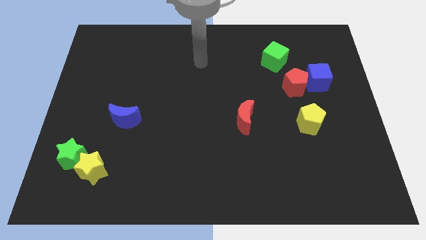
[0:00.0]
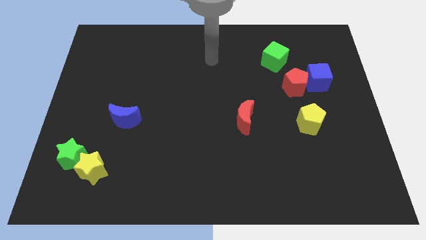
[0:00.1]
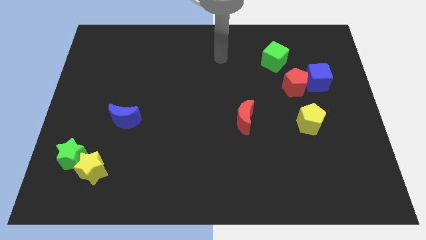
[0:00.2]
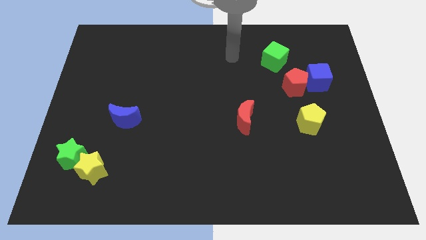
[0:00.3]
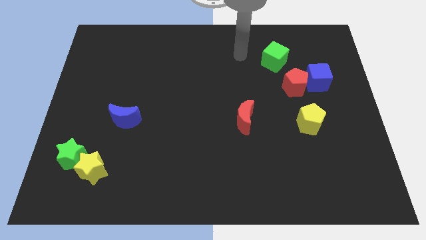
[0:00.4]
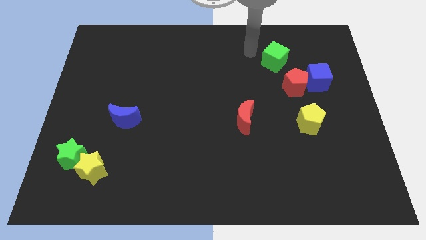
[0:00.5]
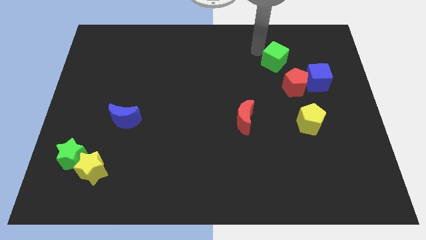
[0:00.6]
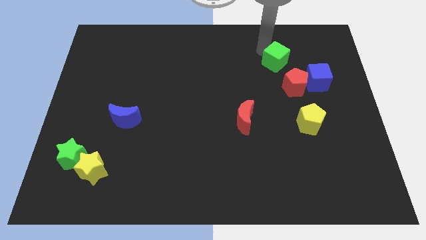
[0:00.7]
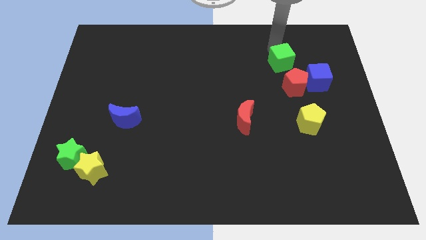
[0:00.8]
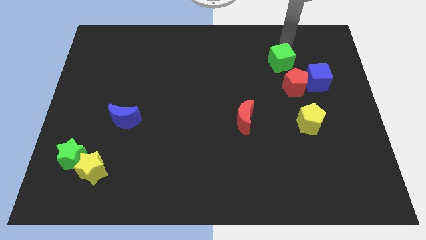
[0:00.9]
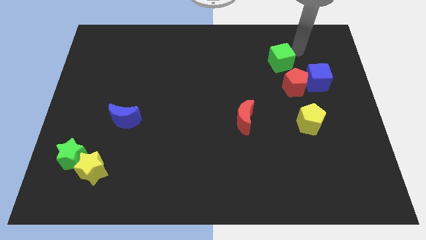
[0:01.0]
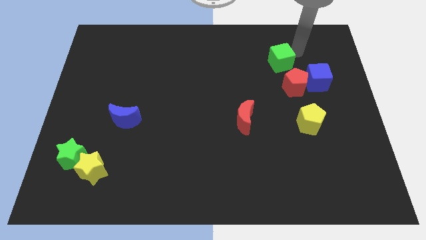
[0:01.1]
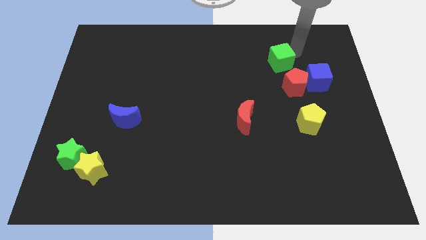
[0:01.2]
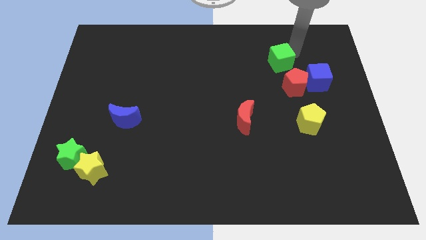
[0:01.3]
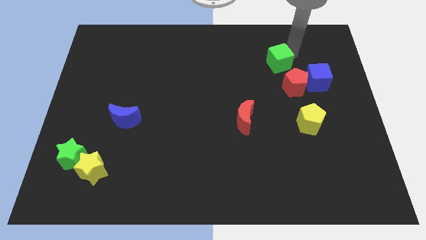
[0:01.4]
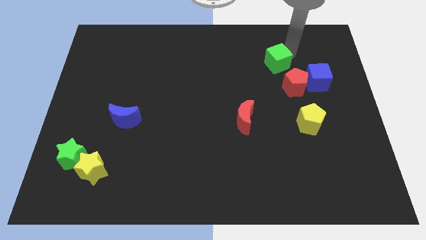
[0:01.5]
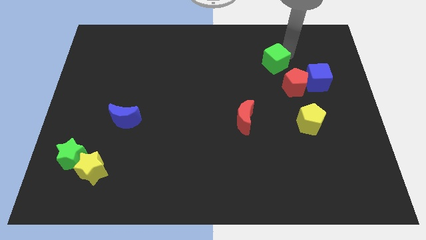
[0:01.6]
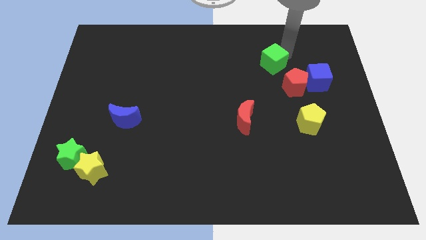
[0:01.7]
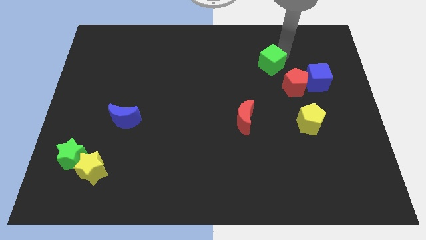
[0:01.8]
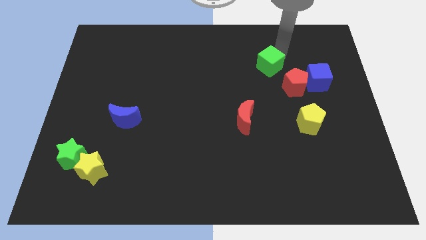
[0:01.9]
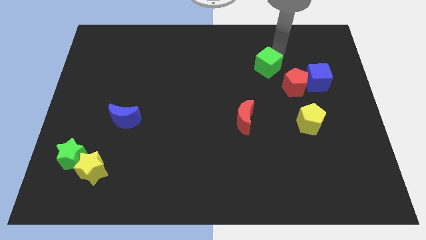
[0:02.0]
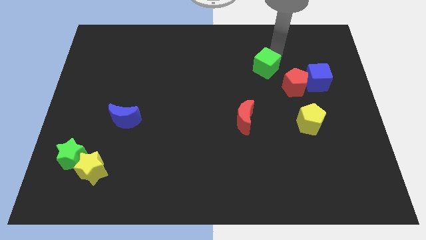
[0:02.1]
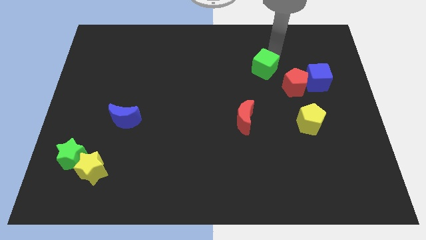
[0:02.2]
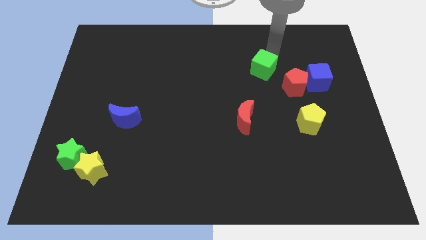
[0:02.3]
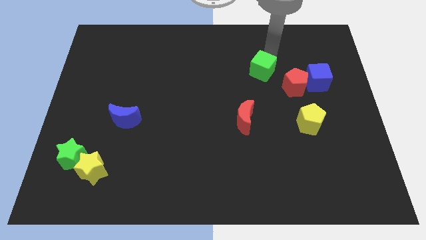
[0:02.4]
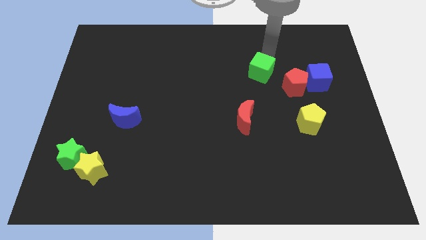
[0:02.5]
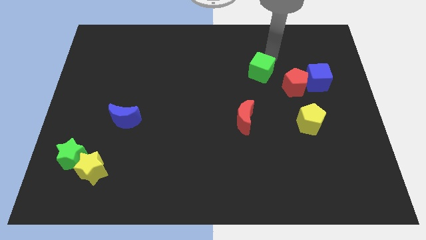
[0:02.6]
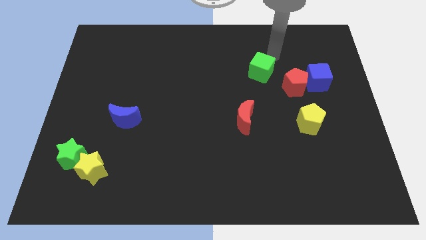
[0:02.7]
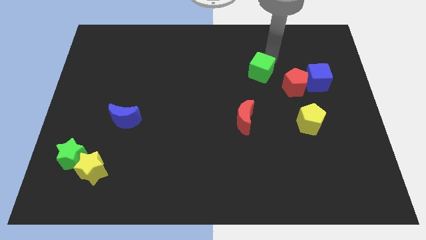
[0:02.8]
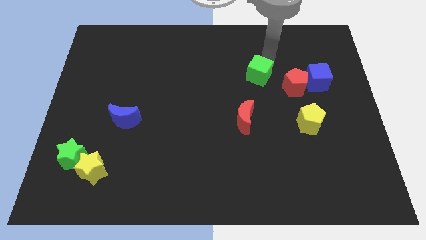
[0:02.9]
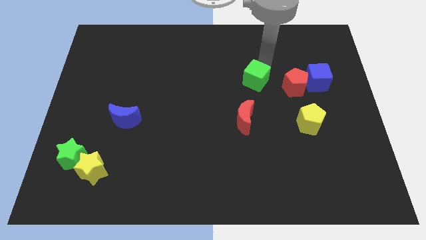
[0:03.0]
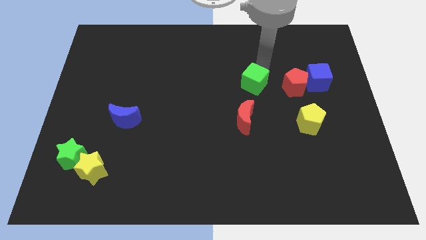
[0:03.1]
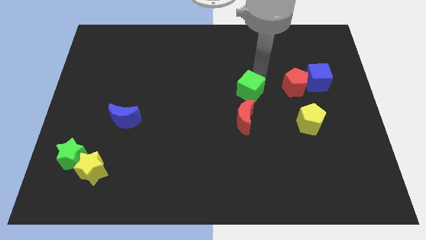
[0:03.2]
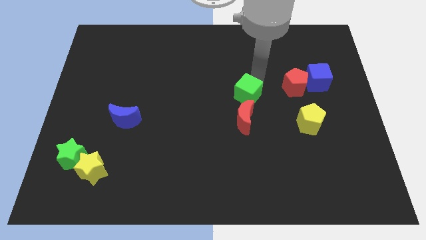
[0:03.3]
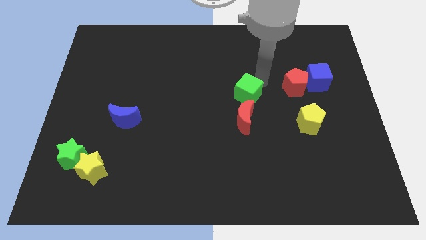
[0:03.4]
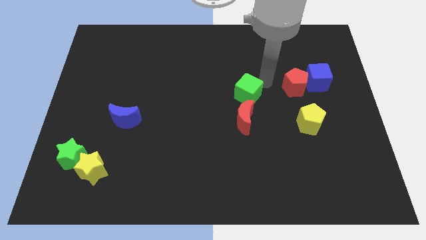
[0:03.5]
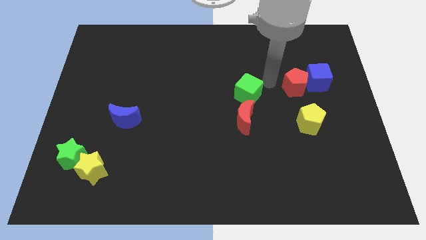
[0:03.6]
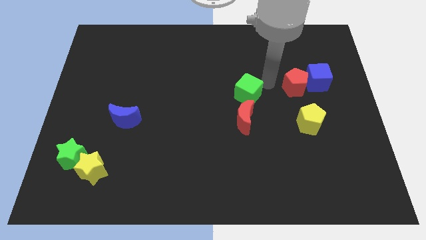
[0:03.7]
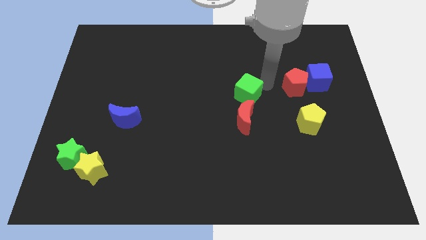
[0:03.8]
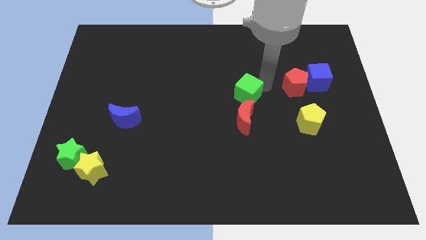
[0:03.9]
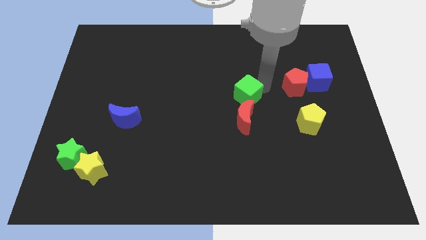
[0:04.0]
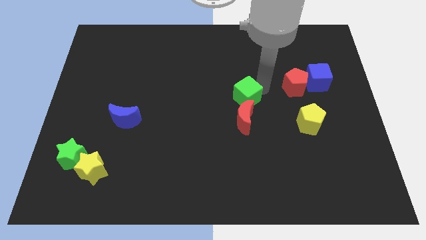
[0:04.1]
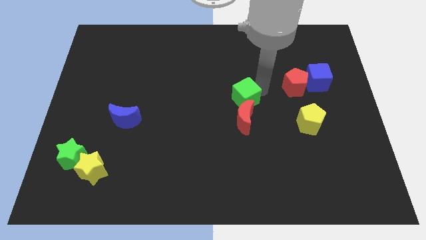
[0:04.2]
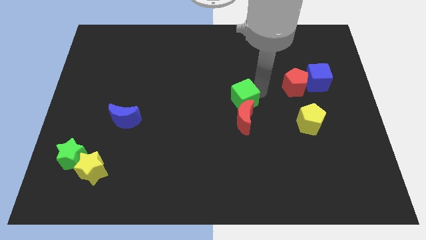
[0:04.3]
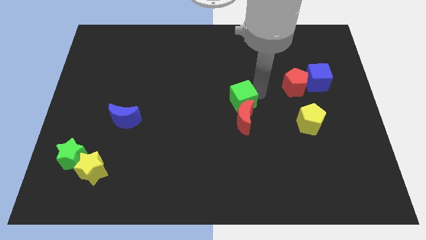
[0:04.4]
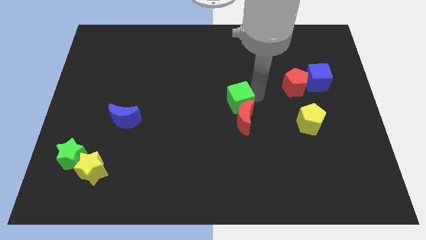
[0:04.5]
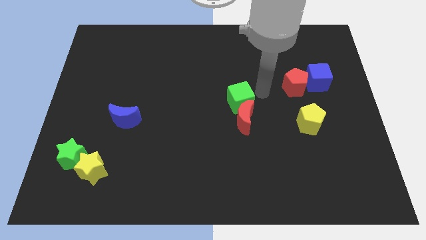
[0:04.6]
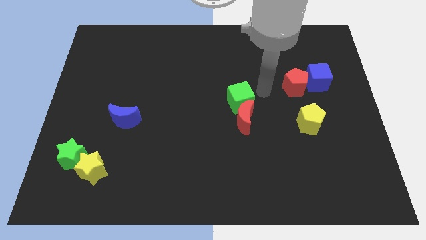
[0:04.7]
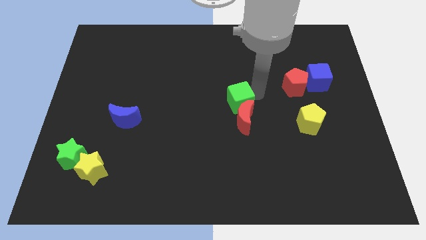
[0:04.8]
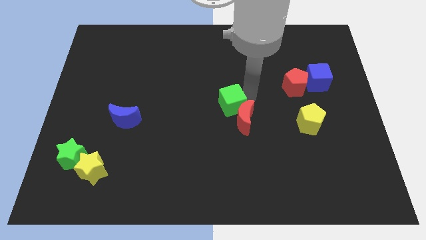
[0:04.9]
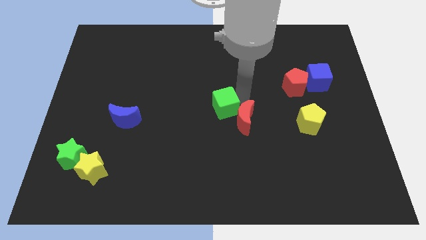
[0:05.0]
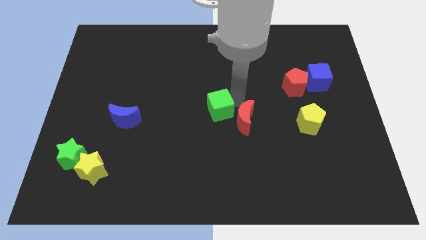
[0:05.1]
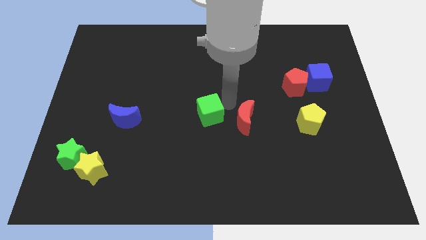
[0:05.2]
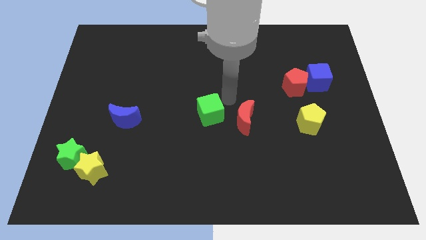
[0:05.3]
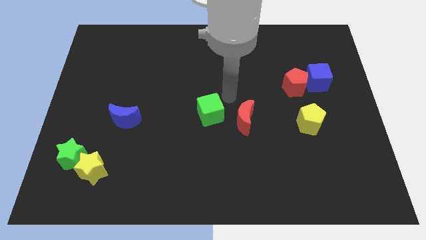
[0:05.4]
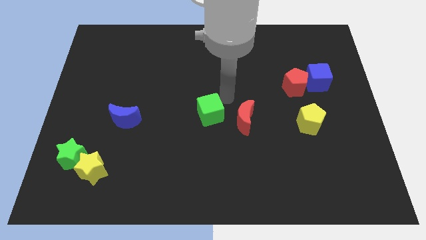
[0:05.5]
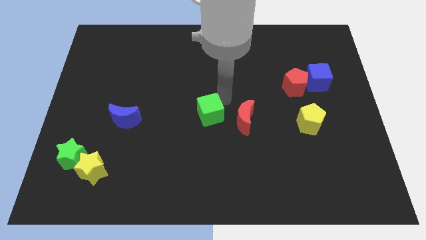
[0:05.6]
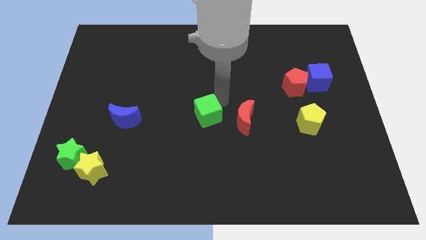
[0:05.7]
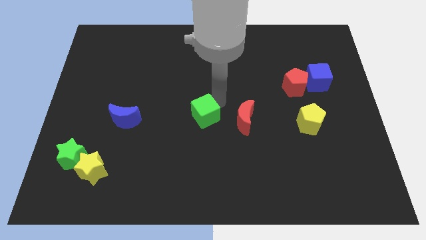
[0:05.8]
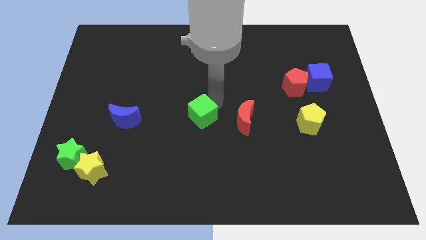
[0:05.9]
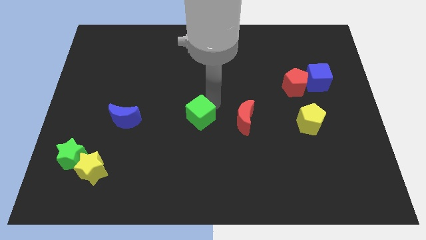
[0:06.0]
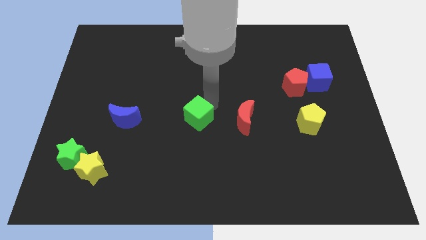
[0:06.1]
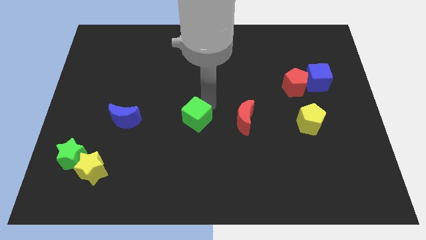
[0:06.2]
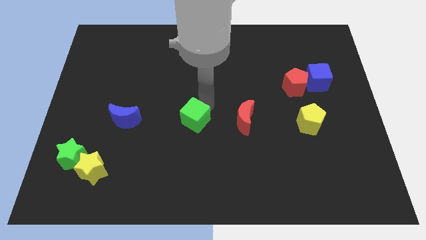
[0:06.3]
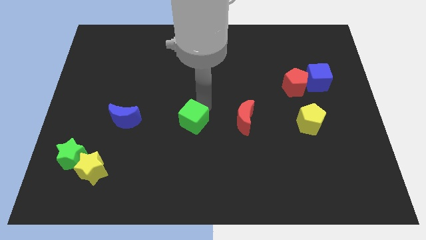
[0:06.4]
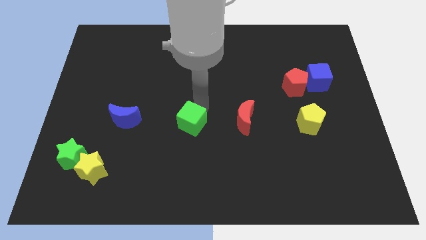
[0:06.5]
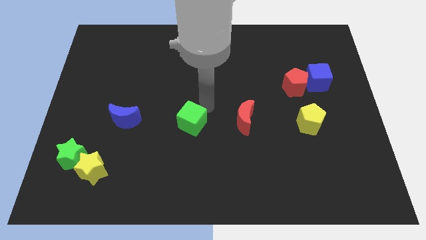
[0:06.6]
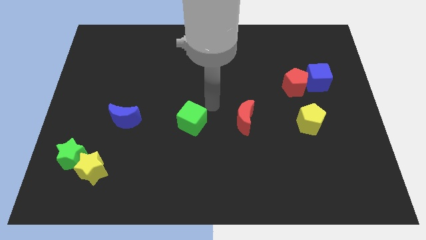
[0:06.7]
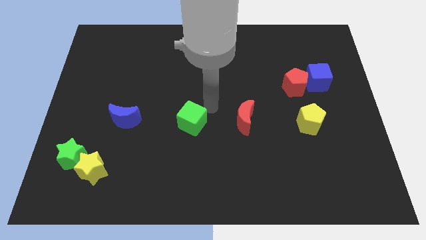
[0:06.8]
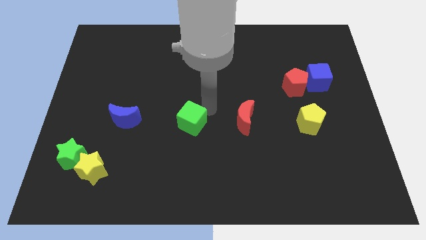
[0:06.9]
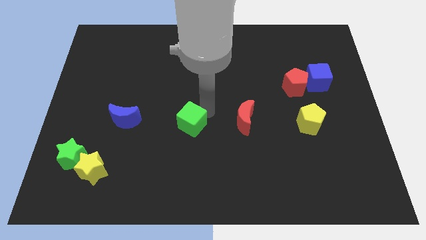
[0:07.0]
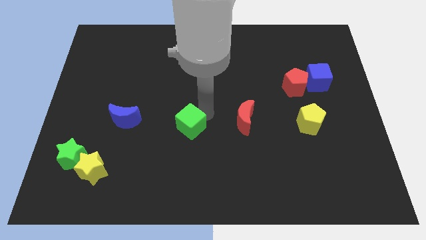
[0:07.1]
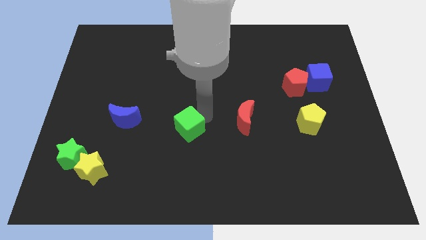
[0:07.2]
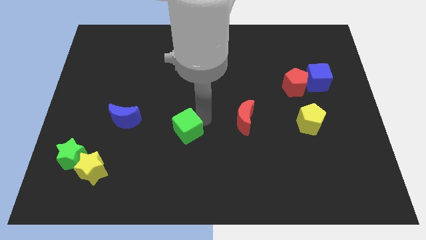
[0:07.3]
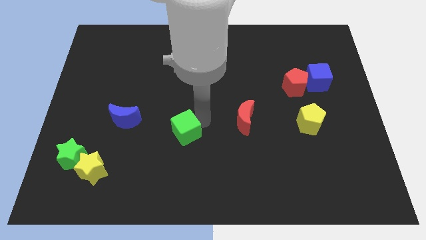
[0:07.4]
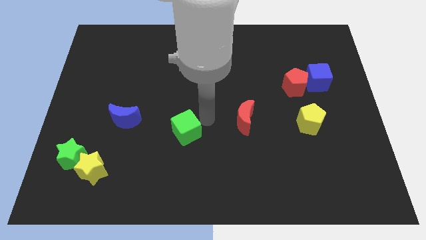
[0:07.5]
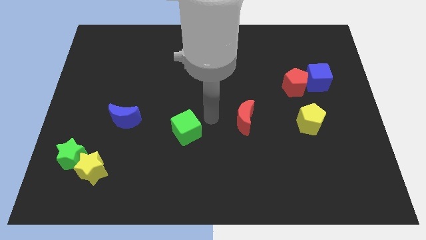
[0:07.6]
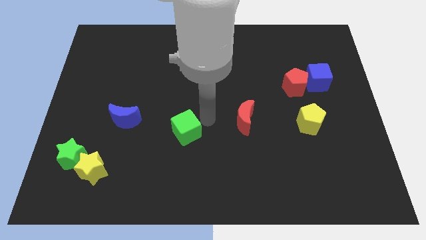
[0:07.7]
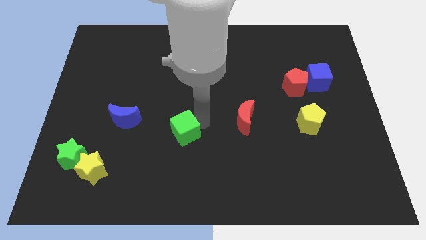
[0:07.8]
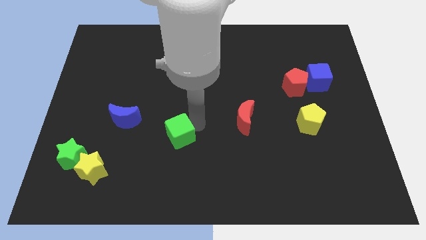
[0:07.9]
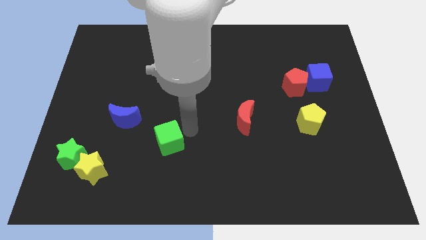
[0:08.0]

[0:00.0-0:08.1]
move the green cube diagonally down and to the right of the blue moon
